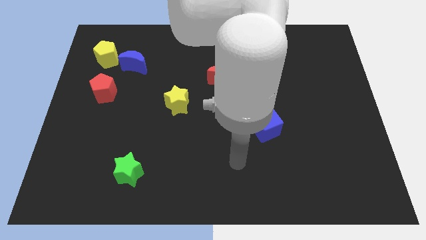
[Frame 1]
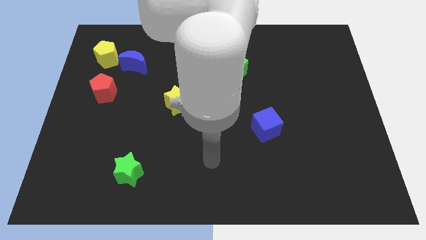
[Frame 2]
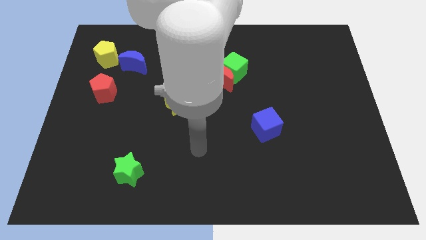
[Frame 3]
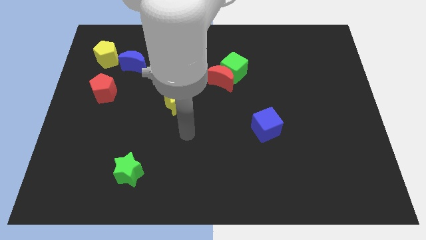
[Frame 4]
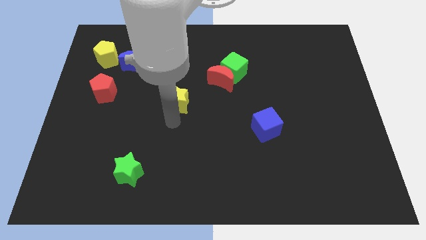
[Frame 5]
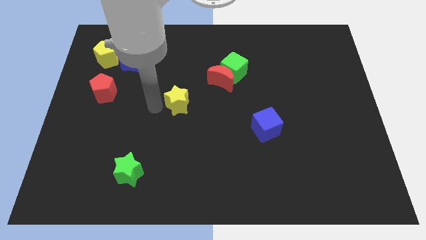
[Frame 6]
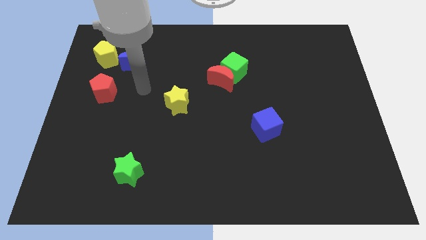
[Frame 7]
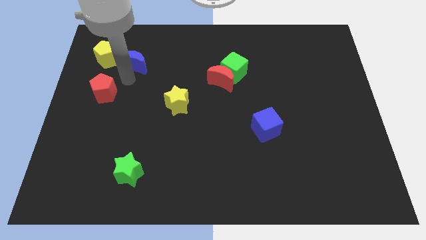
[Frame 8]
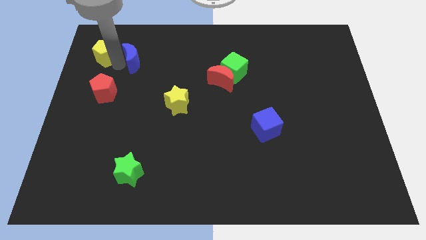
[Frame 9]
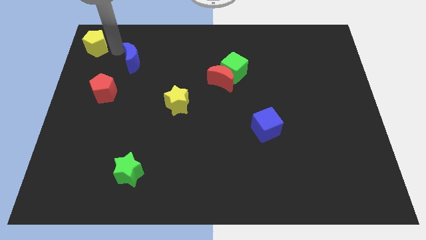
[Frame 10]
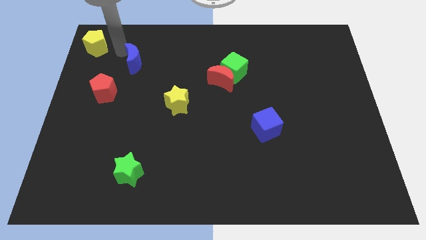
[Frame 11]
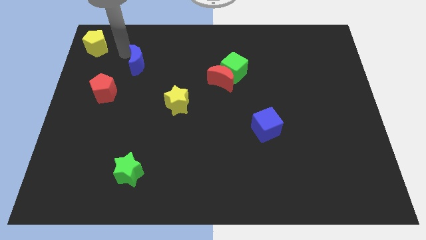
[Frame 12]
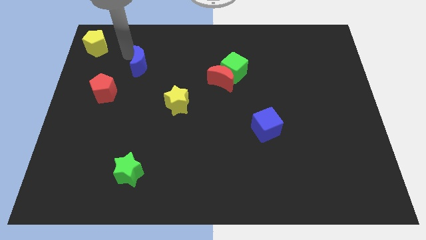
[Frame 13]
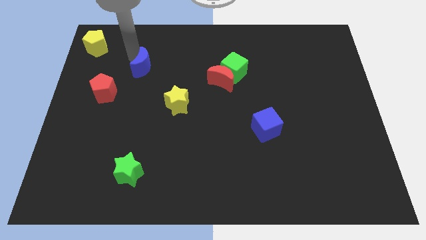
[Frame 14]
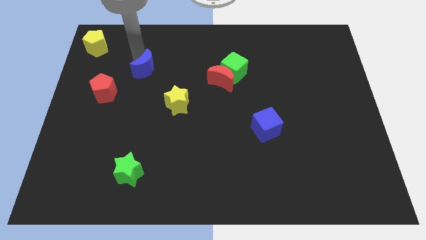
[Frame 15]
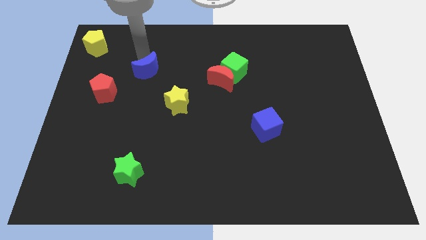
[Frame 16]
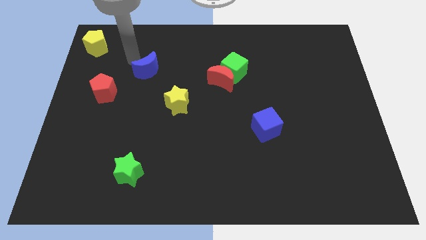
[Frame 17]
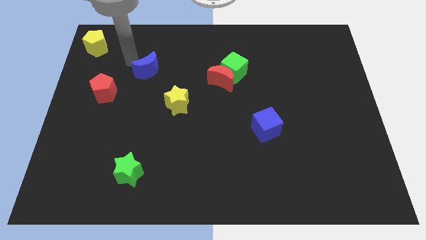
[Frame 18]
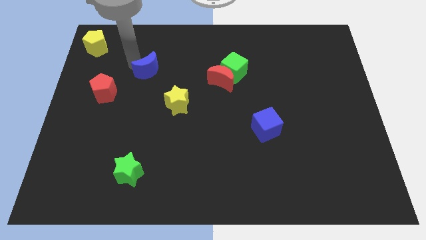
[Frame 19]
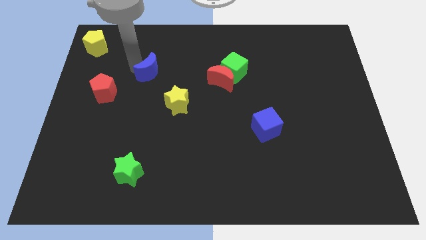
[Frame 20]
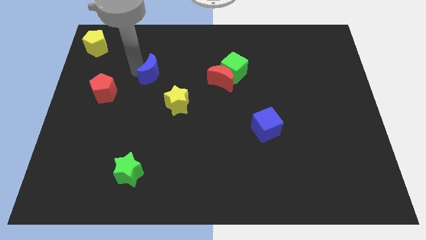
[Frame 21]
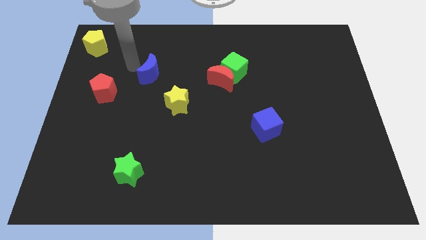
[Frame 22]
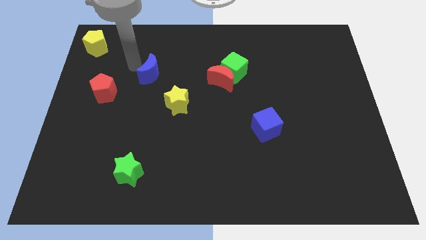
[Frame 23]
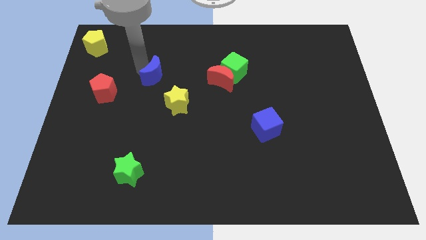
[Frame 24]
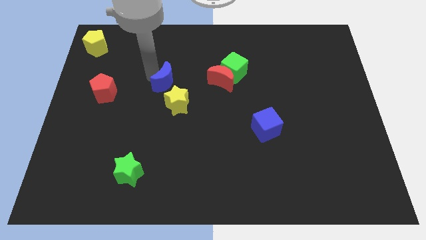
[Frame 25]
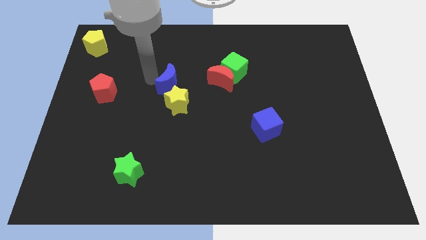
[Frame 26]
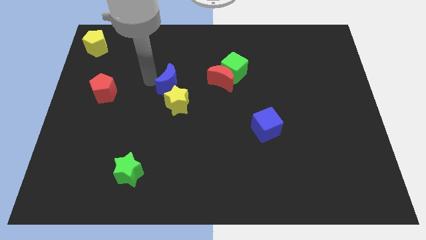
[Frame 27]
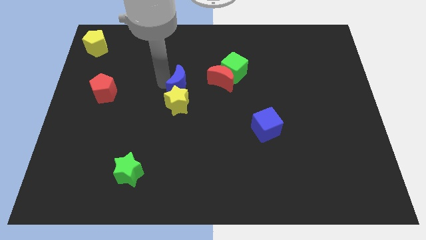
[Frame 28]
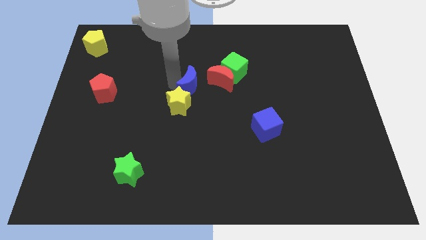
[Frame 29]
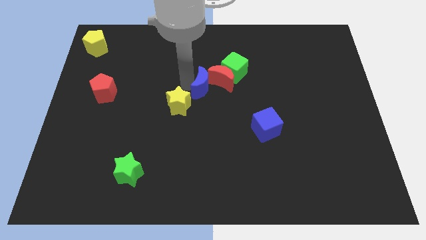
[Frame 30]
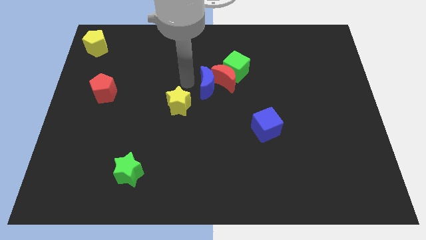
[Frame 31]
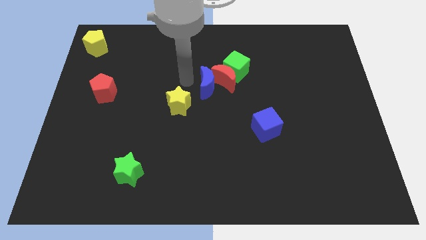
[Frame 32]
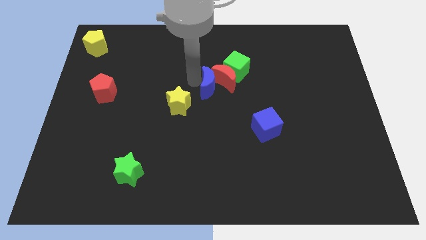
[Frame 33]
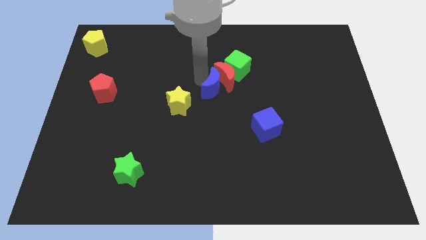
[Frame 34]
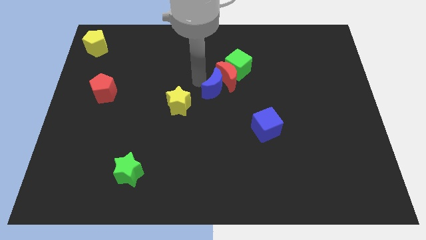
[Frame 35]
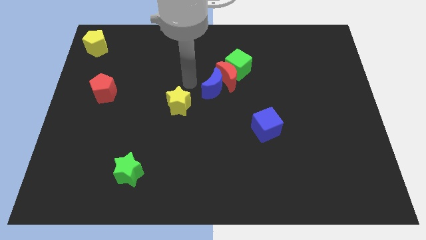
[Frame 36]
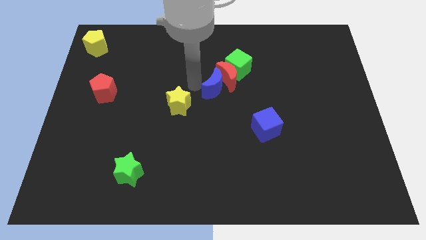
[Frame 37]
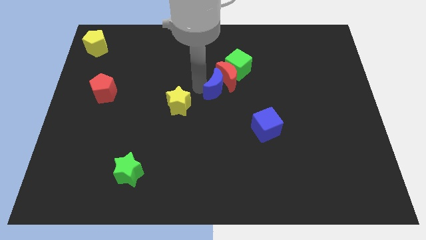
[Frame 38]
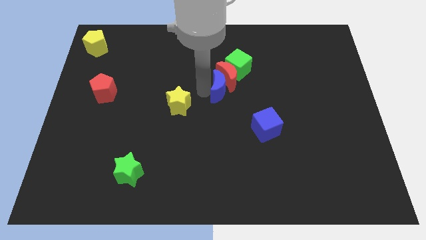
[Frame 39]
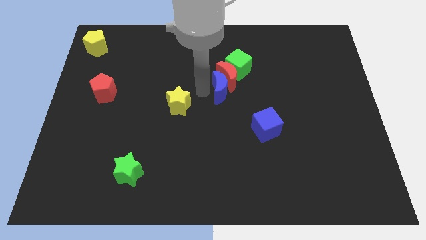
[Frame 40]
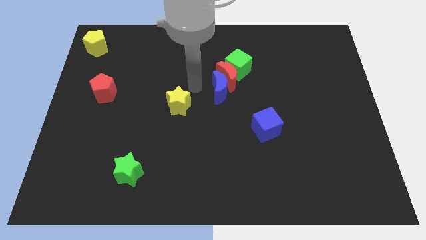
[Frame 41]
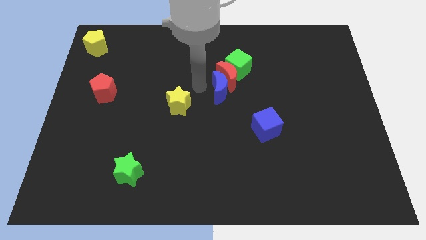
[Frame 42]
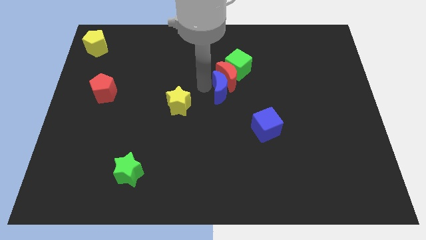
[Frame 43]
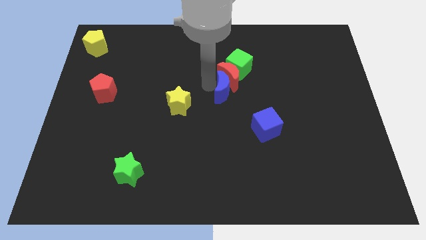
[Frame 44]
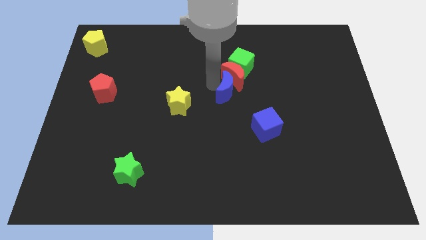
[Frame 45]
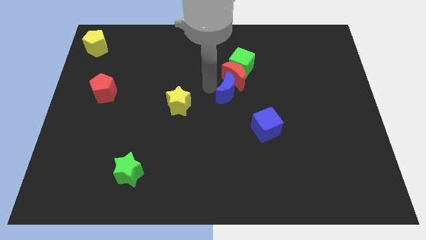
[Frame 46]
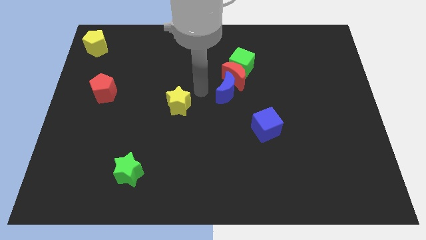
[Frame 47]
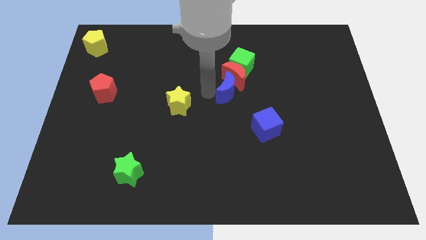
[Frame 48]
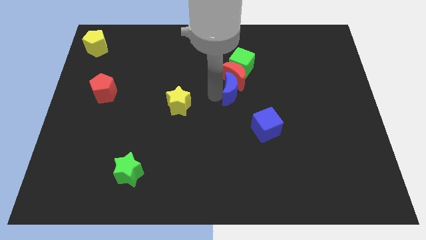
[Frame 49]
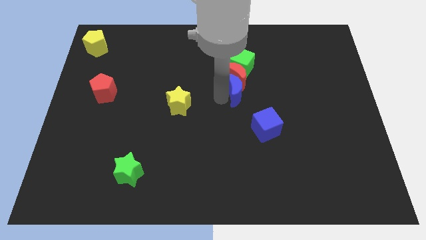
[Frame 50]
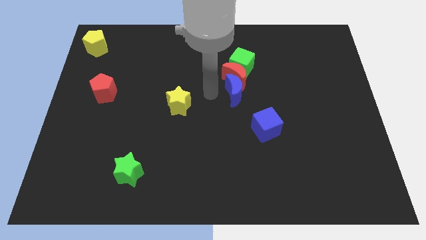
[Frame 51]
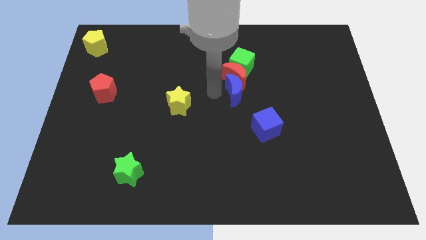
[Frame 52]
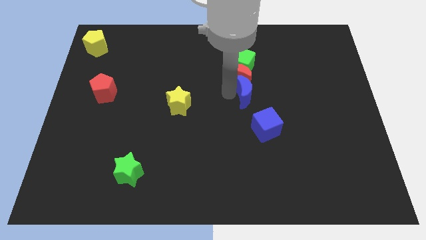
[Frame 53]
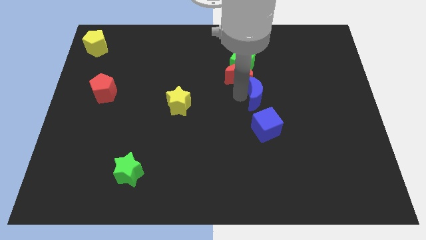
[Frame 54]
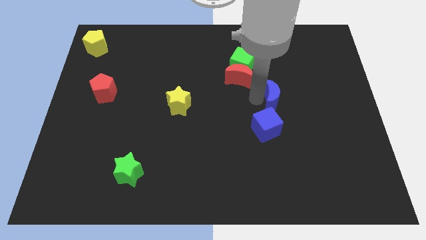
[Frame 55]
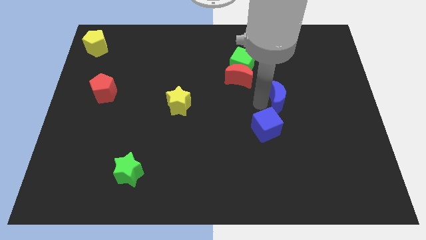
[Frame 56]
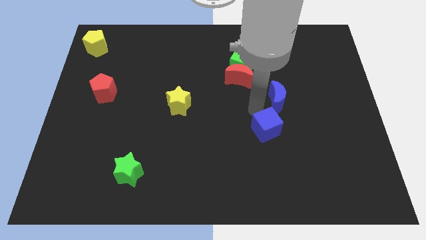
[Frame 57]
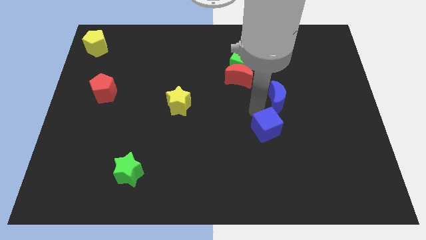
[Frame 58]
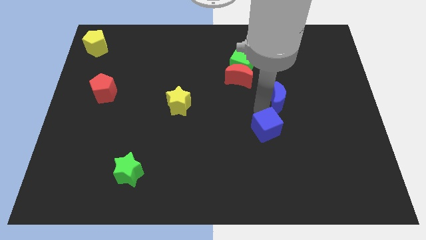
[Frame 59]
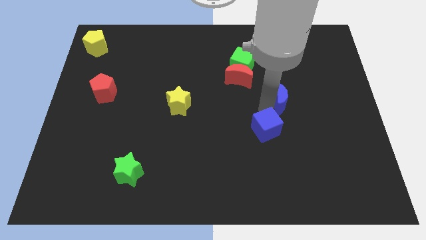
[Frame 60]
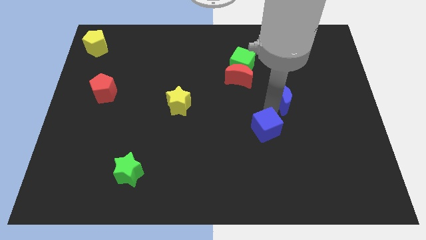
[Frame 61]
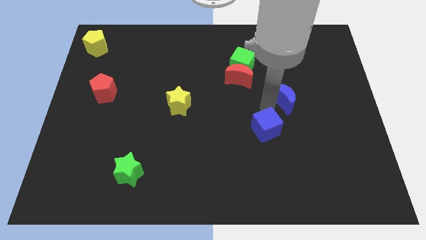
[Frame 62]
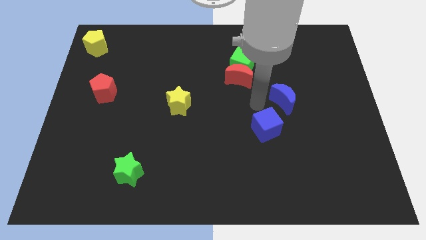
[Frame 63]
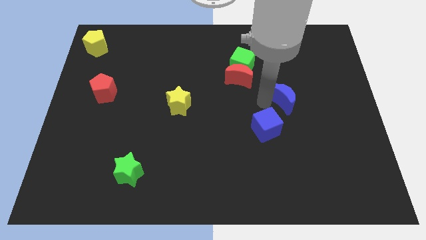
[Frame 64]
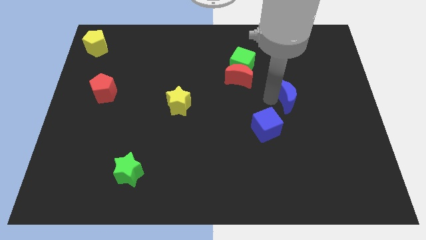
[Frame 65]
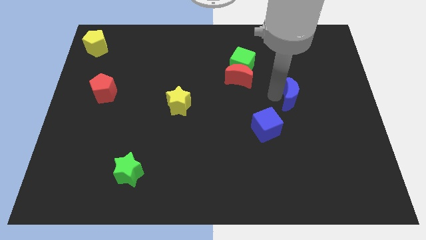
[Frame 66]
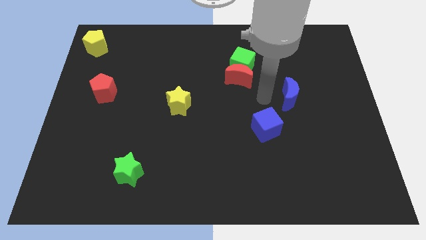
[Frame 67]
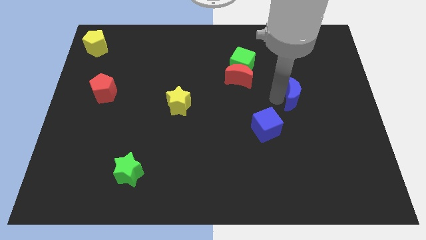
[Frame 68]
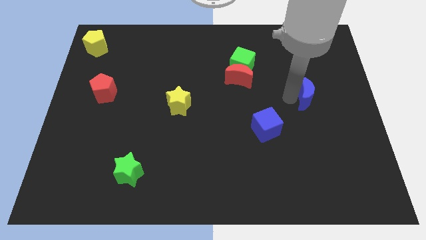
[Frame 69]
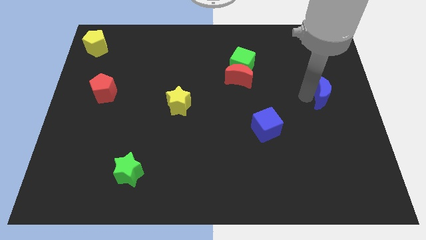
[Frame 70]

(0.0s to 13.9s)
move the blue moon to the center right
